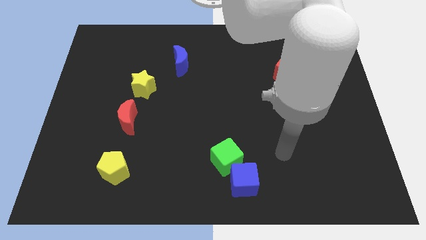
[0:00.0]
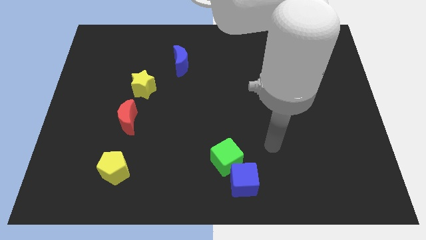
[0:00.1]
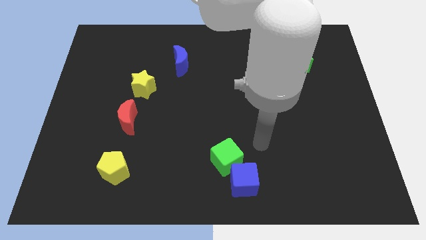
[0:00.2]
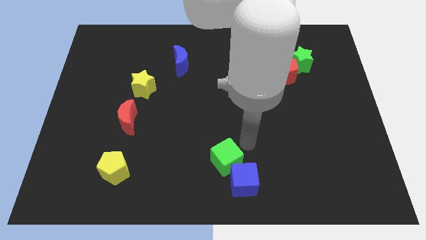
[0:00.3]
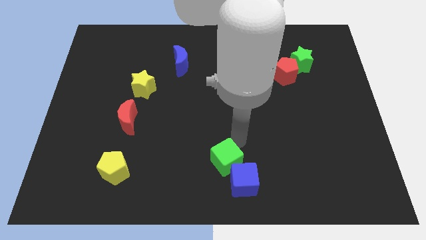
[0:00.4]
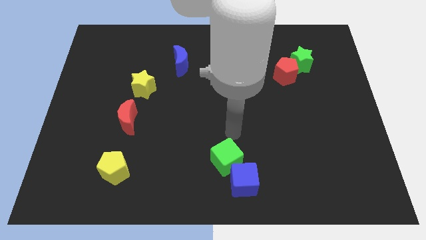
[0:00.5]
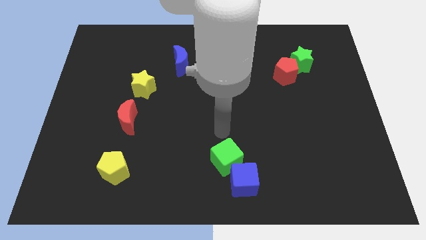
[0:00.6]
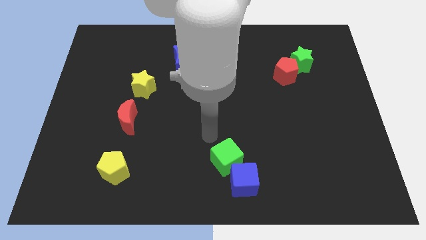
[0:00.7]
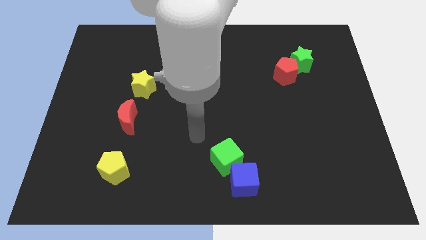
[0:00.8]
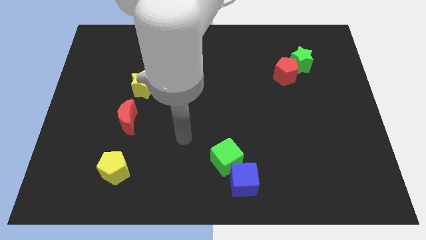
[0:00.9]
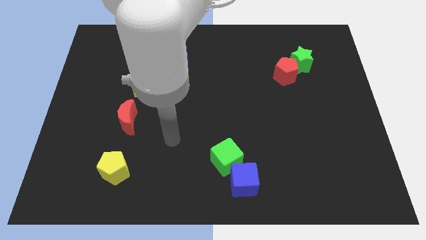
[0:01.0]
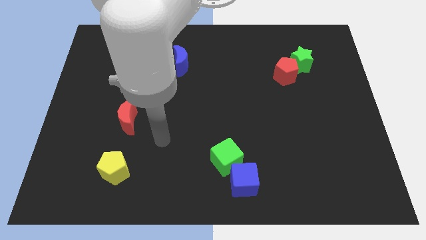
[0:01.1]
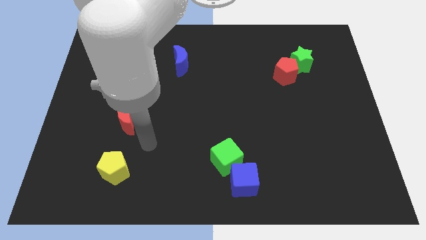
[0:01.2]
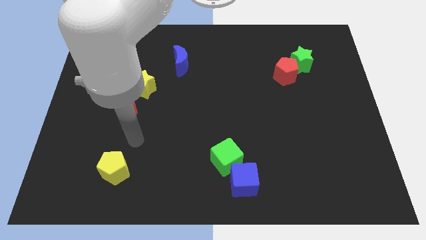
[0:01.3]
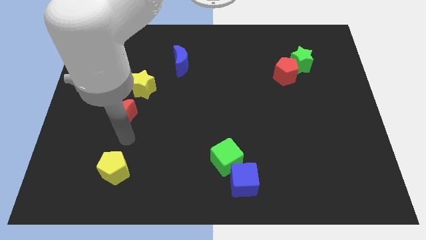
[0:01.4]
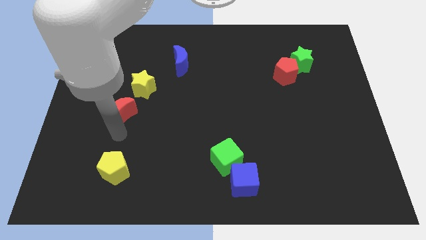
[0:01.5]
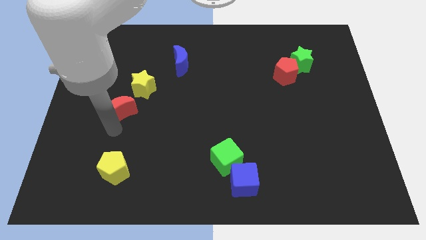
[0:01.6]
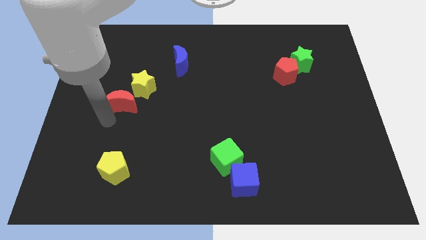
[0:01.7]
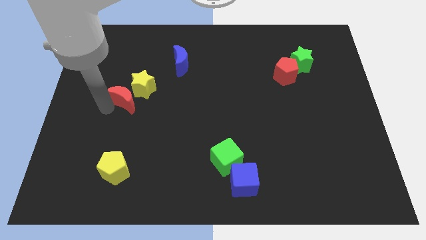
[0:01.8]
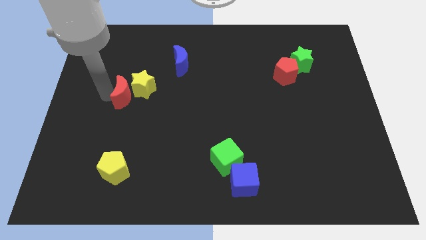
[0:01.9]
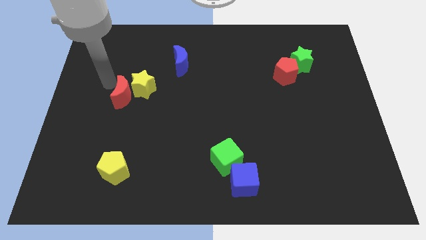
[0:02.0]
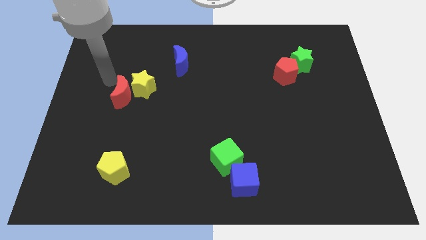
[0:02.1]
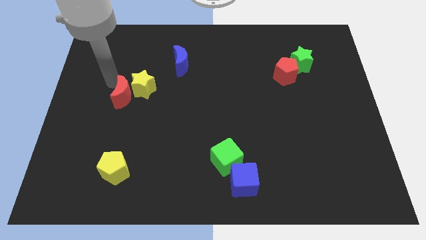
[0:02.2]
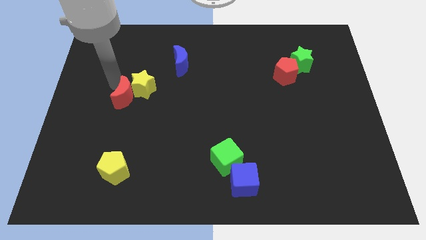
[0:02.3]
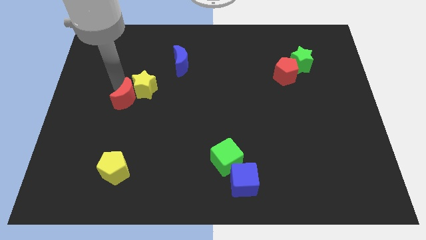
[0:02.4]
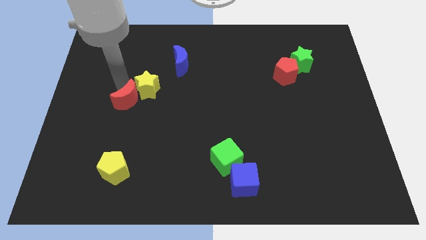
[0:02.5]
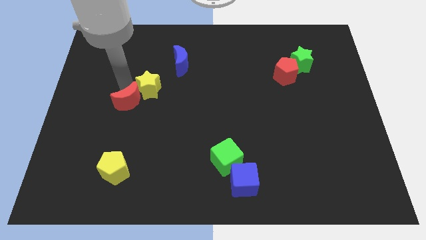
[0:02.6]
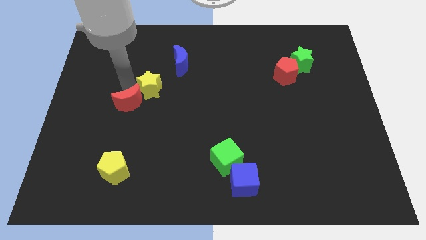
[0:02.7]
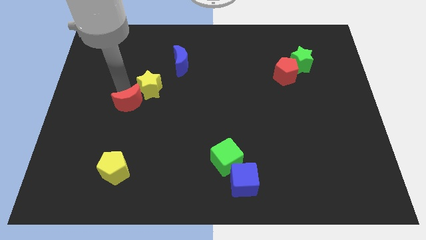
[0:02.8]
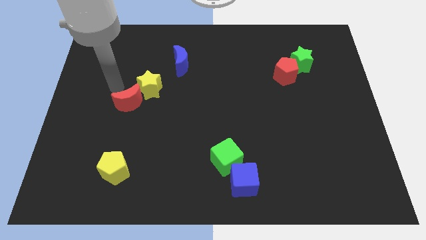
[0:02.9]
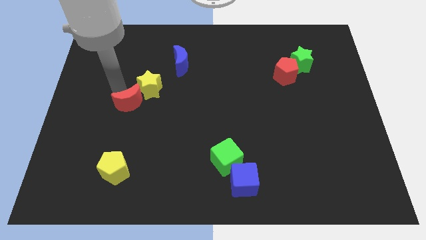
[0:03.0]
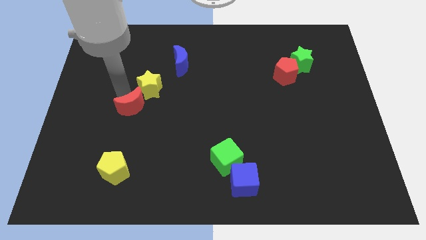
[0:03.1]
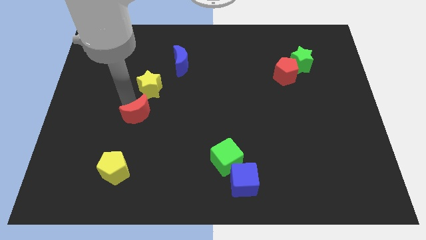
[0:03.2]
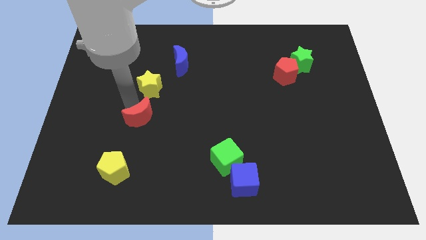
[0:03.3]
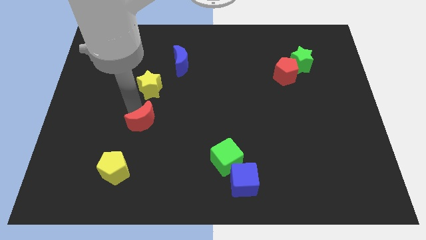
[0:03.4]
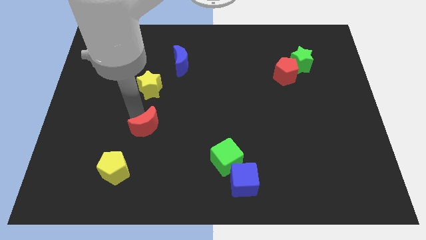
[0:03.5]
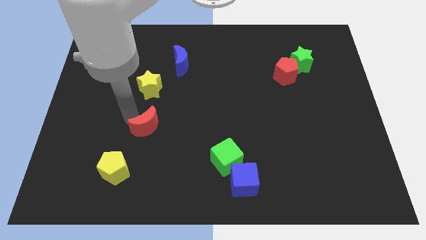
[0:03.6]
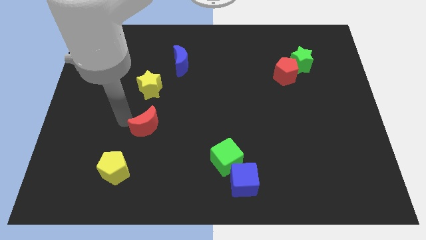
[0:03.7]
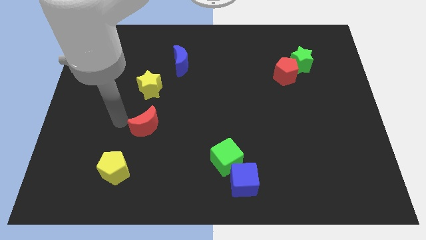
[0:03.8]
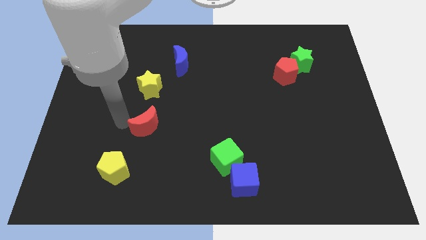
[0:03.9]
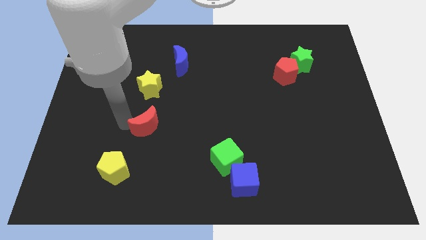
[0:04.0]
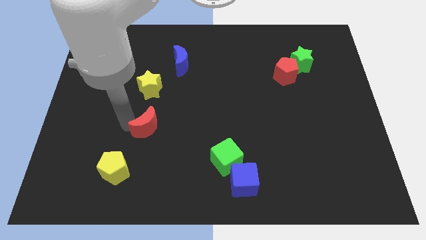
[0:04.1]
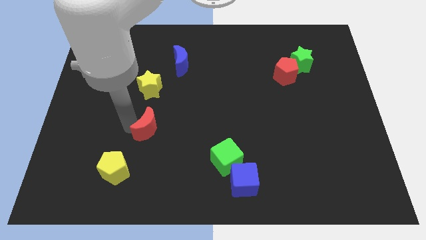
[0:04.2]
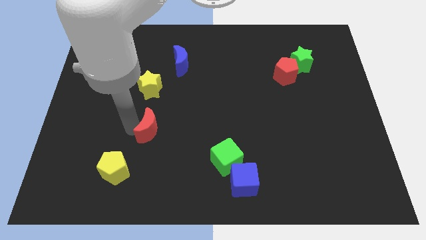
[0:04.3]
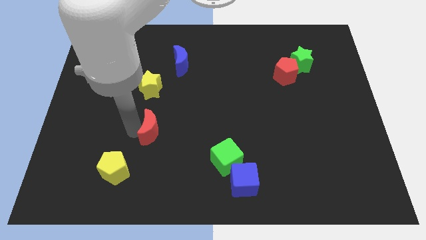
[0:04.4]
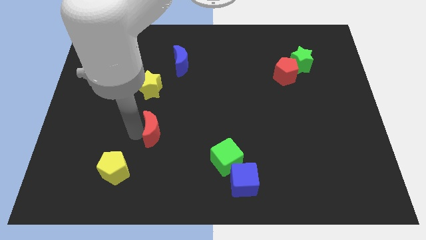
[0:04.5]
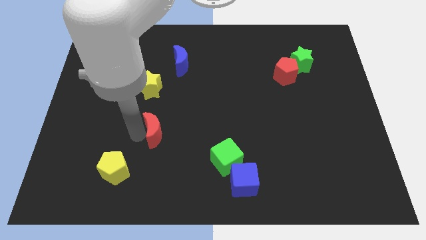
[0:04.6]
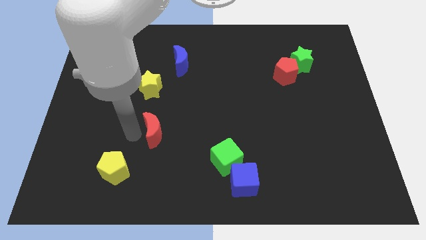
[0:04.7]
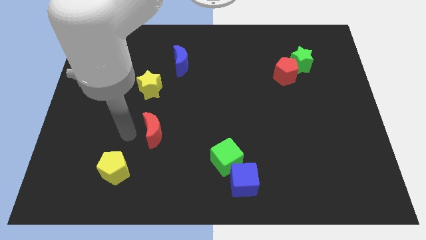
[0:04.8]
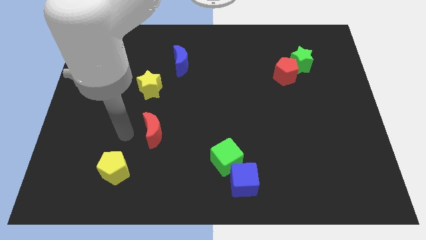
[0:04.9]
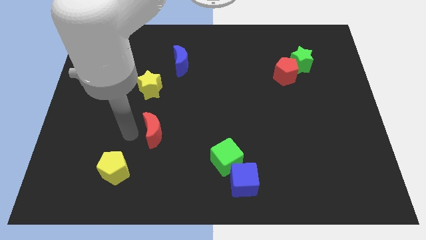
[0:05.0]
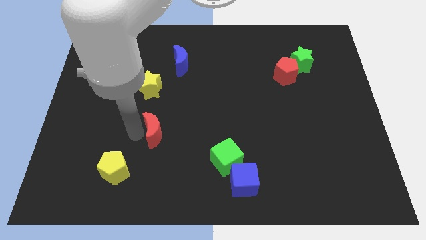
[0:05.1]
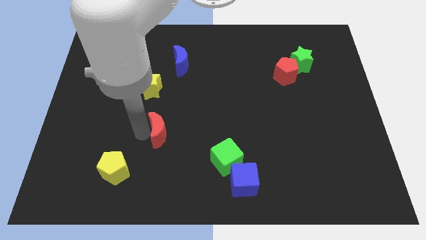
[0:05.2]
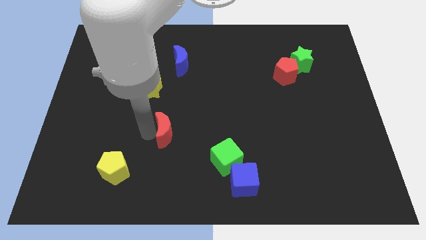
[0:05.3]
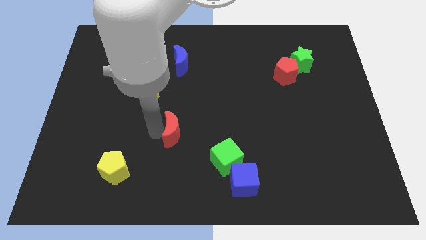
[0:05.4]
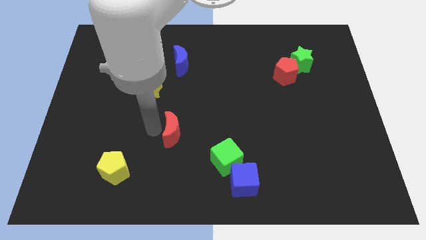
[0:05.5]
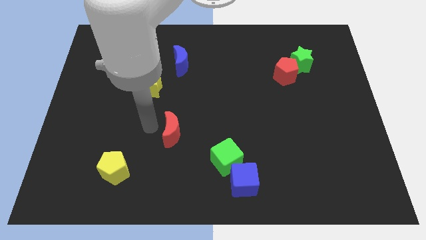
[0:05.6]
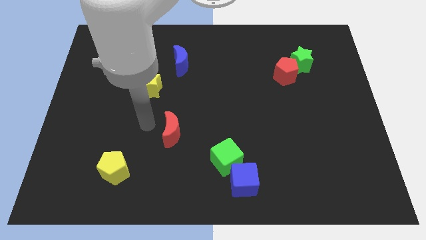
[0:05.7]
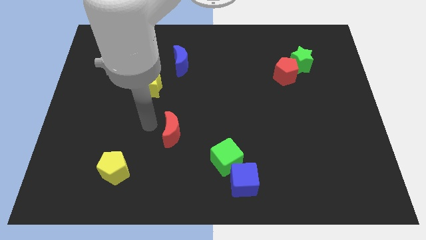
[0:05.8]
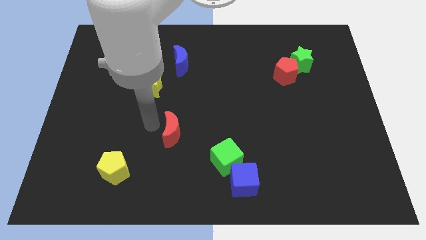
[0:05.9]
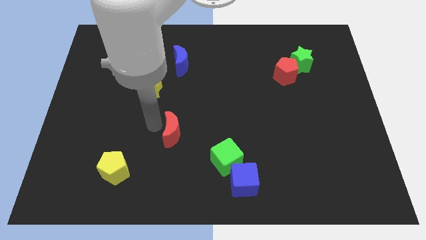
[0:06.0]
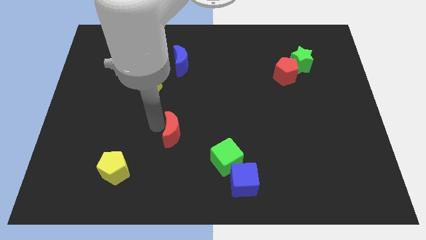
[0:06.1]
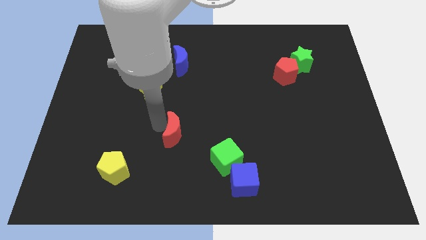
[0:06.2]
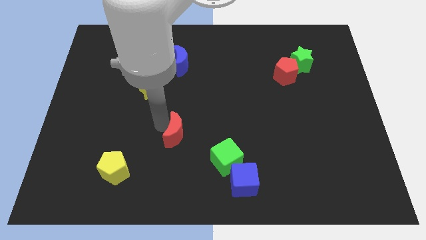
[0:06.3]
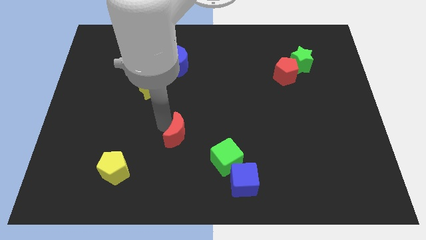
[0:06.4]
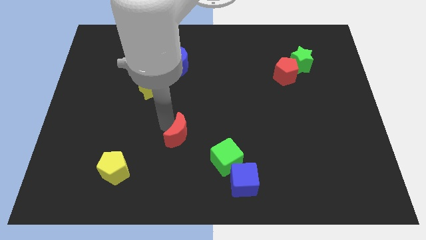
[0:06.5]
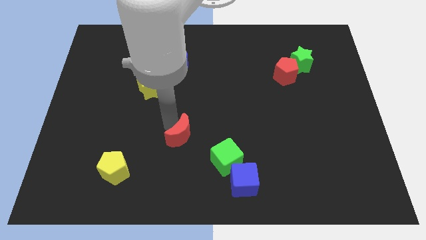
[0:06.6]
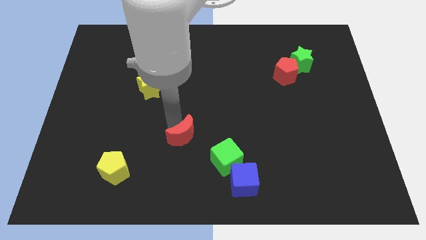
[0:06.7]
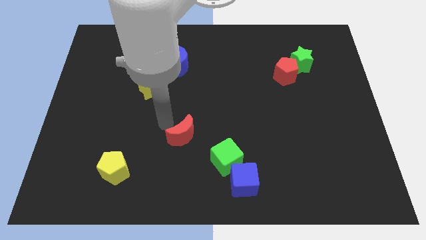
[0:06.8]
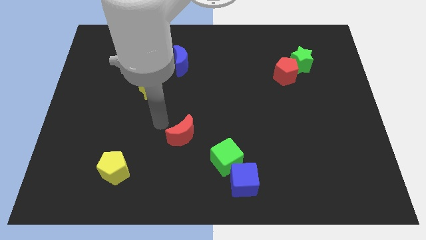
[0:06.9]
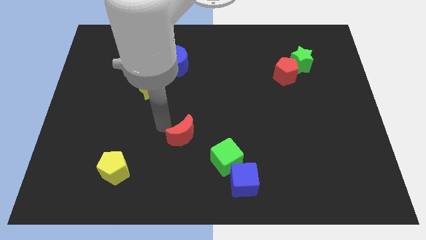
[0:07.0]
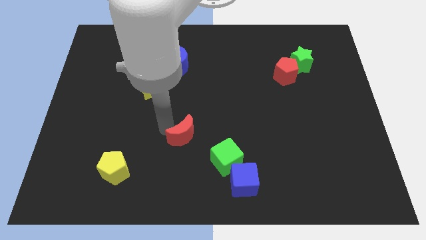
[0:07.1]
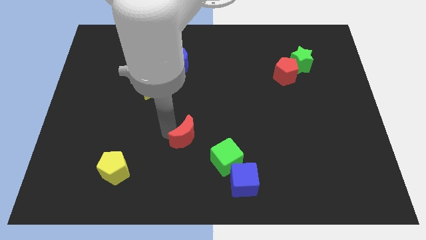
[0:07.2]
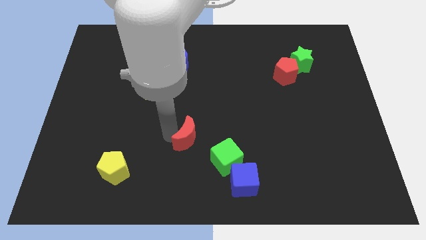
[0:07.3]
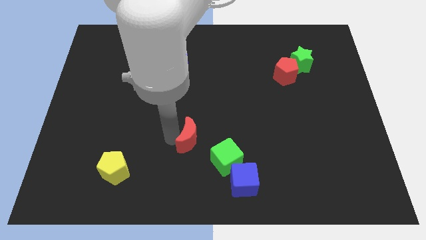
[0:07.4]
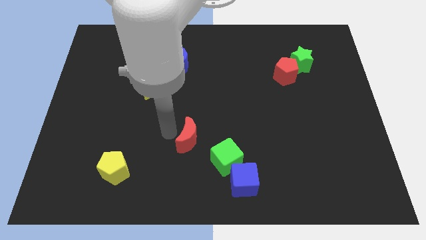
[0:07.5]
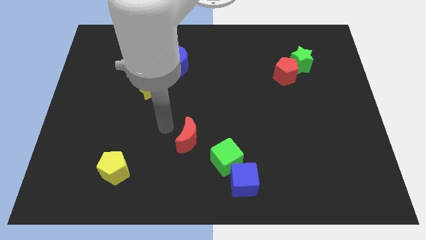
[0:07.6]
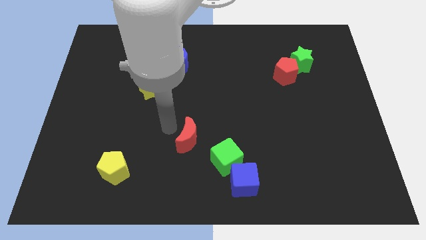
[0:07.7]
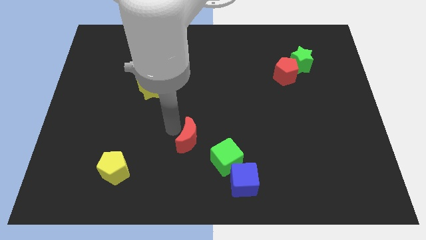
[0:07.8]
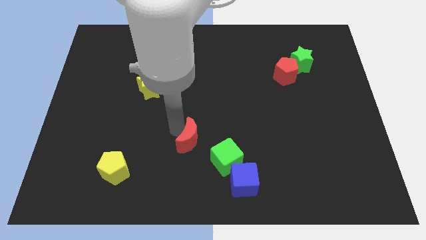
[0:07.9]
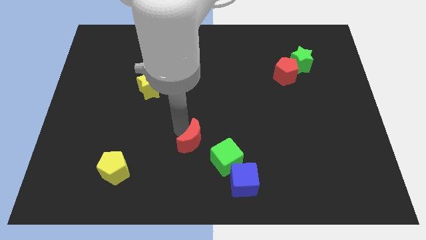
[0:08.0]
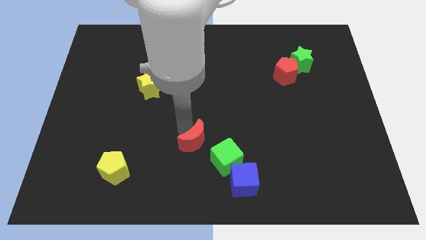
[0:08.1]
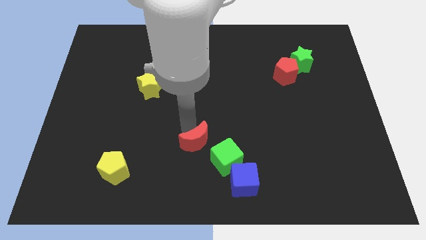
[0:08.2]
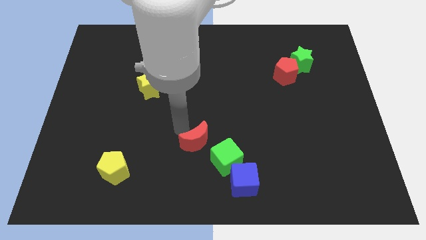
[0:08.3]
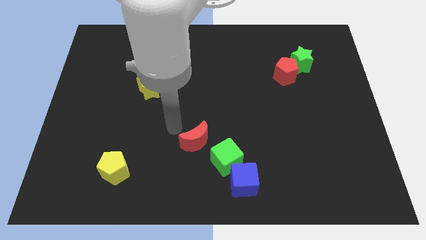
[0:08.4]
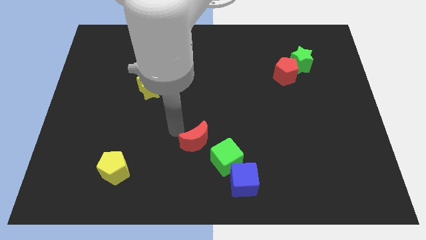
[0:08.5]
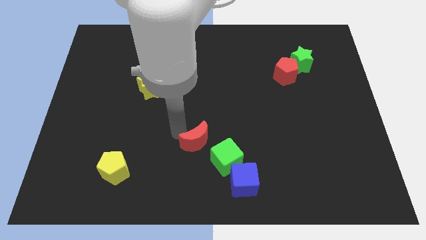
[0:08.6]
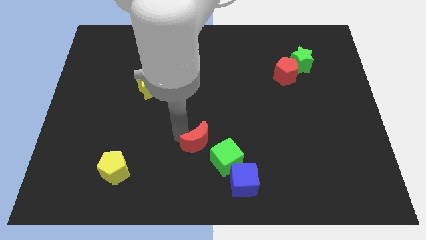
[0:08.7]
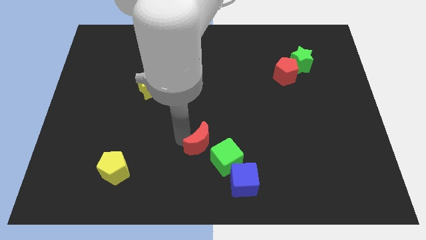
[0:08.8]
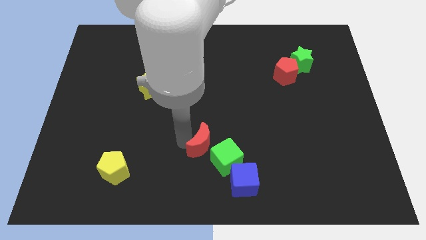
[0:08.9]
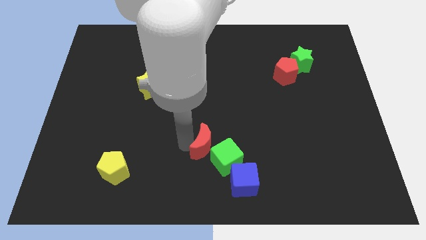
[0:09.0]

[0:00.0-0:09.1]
put the red moon to the green cube
